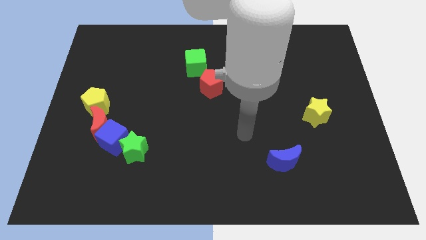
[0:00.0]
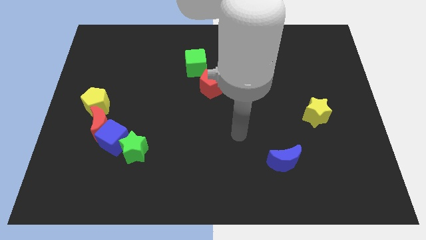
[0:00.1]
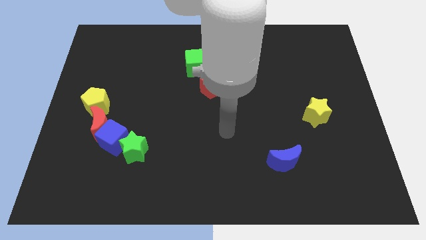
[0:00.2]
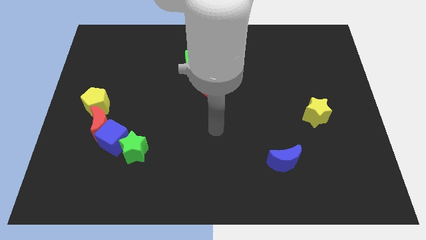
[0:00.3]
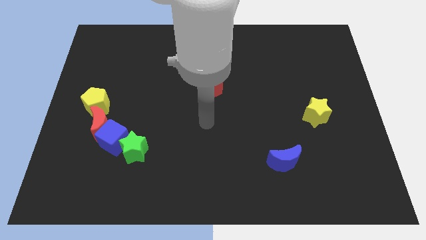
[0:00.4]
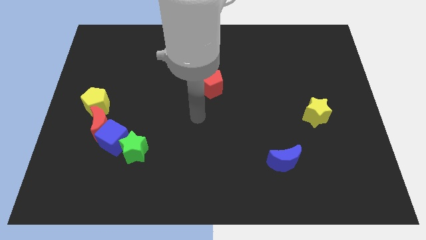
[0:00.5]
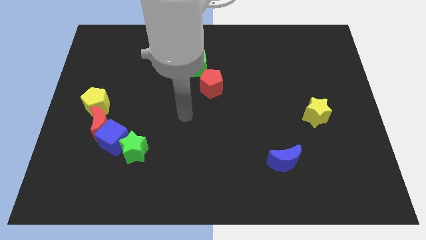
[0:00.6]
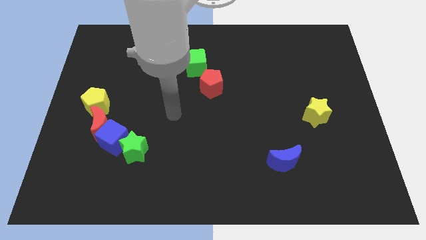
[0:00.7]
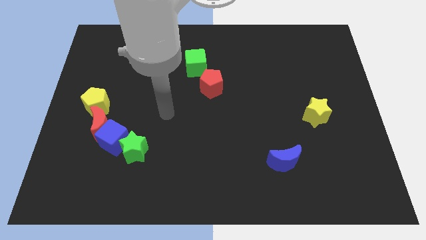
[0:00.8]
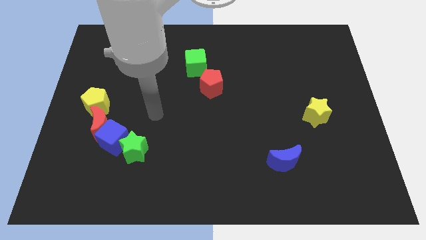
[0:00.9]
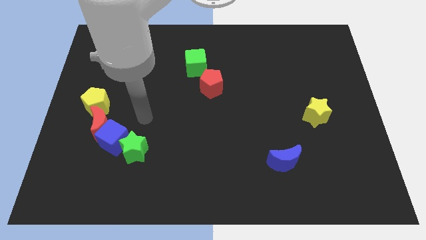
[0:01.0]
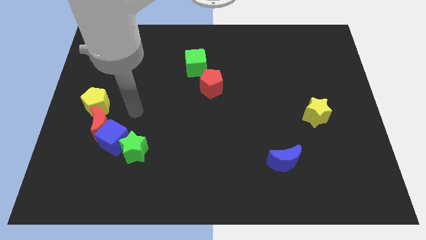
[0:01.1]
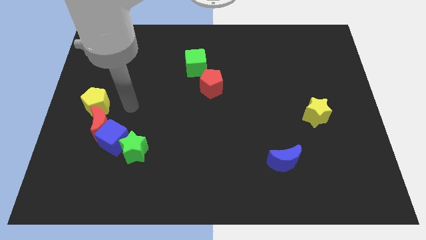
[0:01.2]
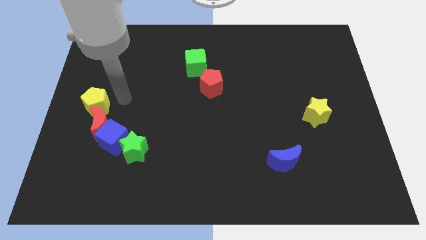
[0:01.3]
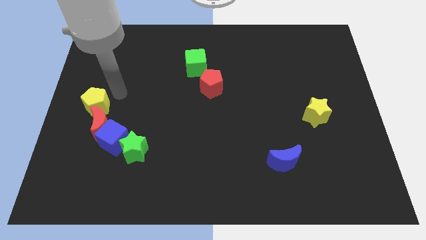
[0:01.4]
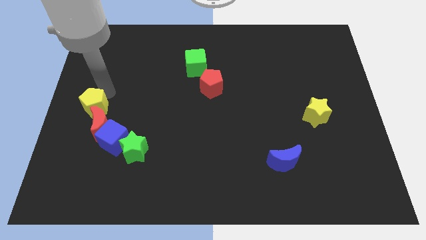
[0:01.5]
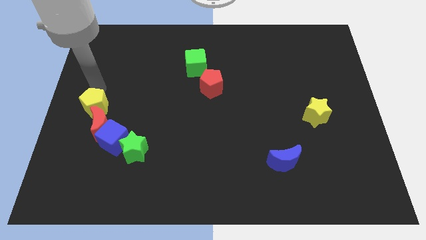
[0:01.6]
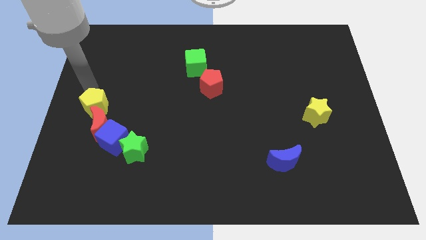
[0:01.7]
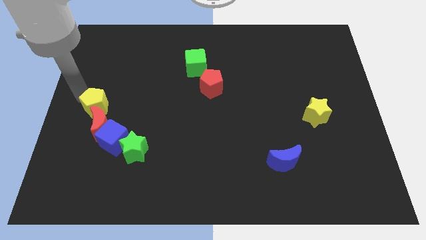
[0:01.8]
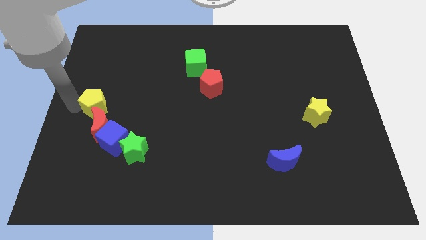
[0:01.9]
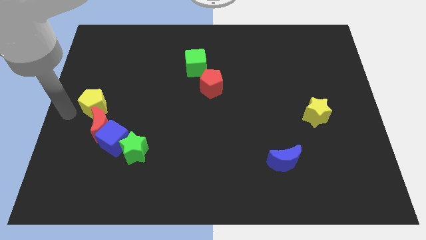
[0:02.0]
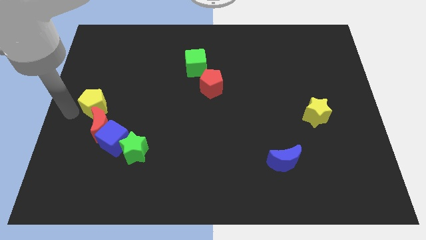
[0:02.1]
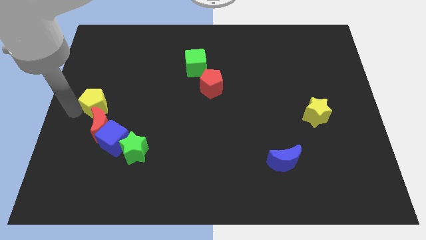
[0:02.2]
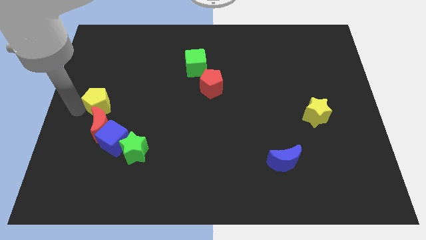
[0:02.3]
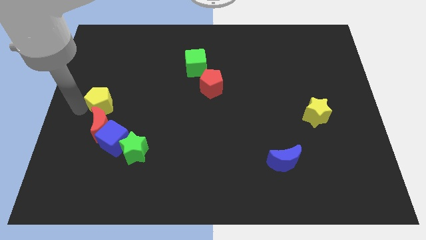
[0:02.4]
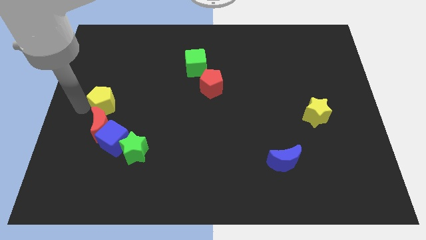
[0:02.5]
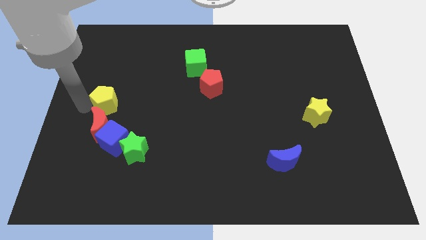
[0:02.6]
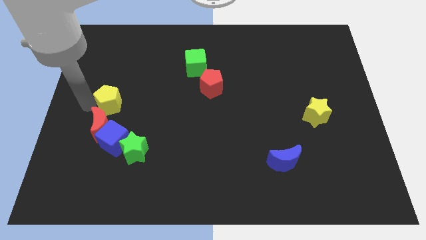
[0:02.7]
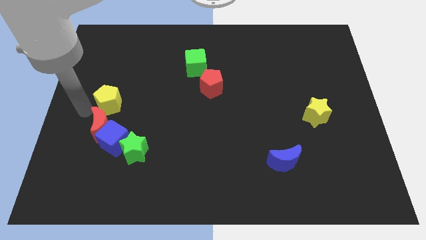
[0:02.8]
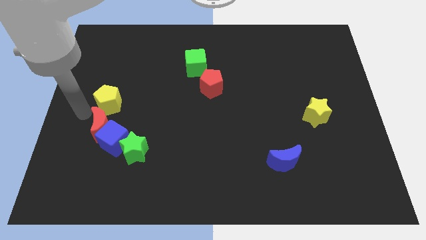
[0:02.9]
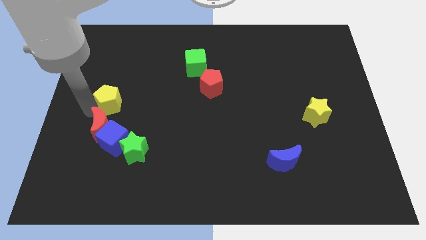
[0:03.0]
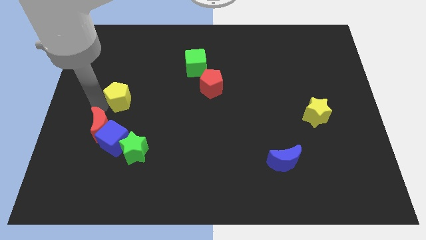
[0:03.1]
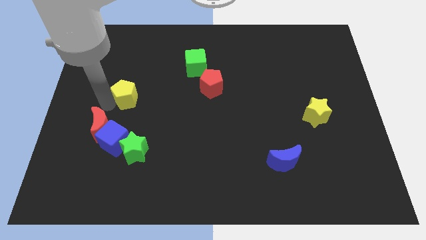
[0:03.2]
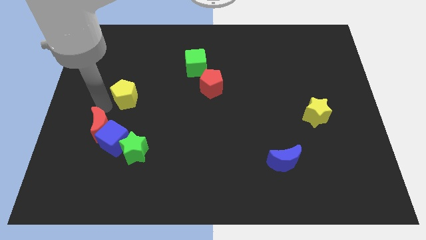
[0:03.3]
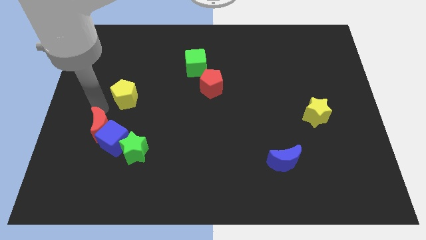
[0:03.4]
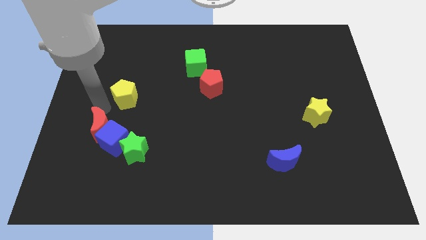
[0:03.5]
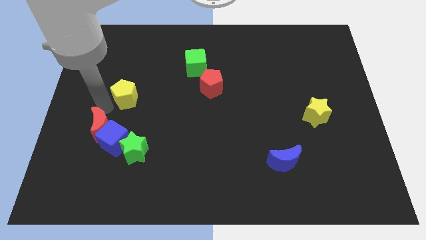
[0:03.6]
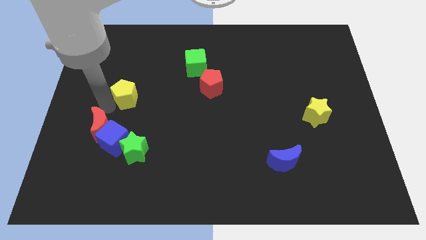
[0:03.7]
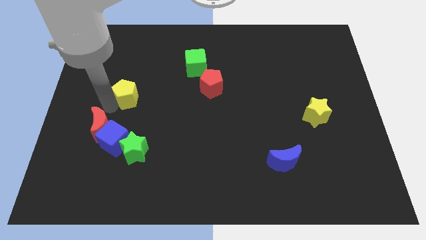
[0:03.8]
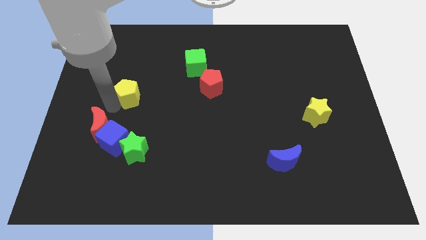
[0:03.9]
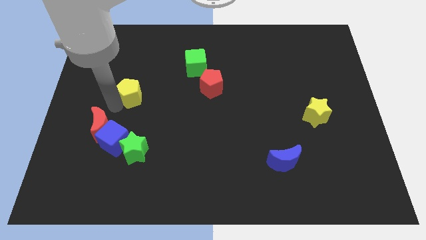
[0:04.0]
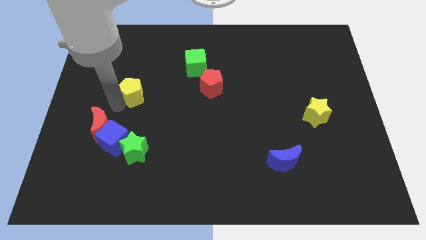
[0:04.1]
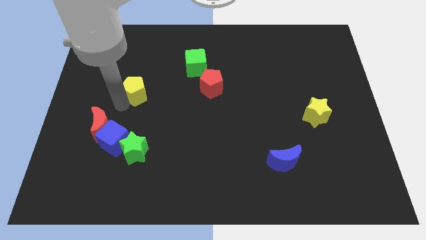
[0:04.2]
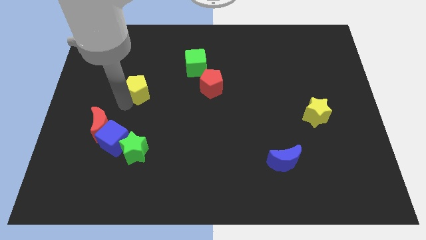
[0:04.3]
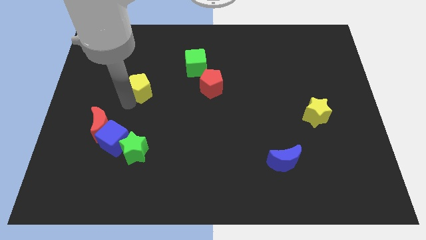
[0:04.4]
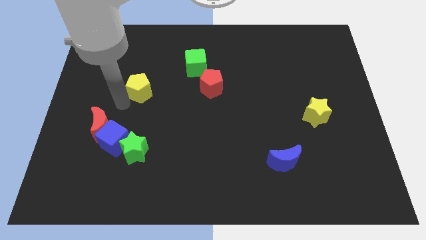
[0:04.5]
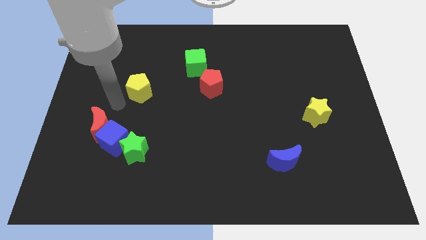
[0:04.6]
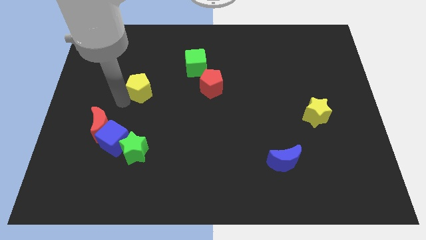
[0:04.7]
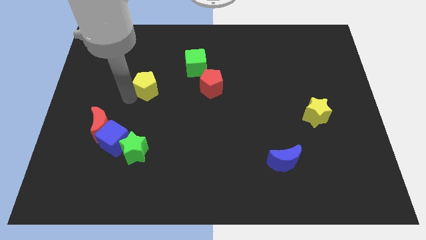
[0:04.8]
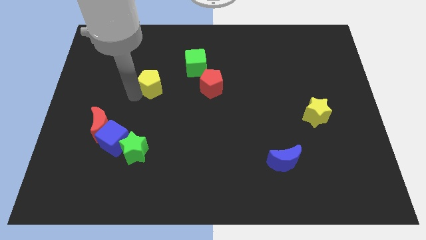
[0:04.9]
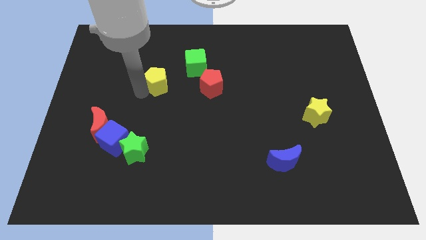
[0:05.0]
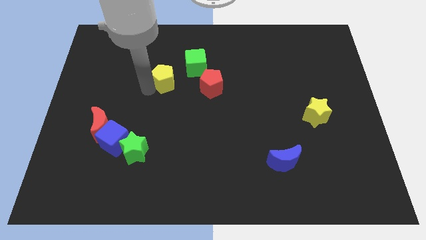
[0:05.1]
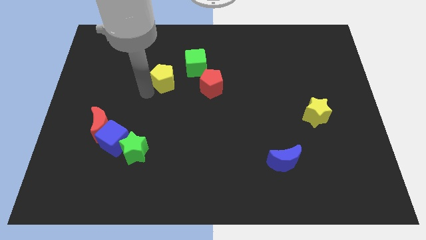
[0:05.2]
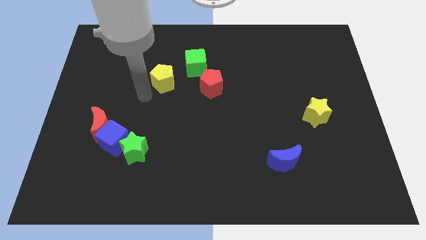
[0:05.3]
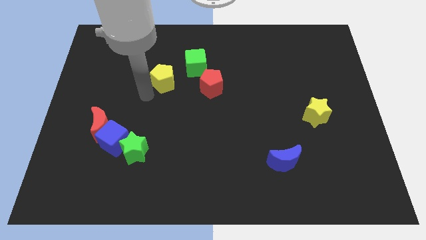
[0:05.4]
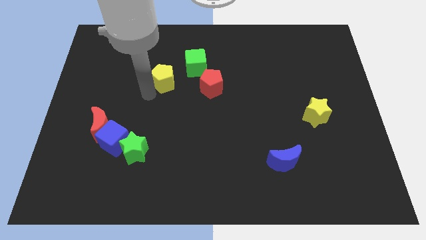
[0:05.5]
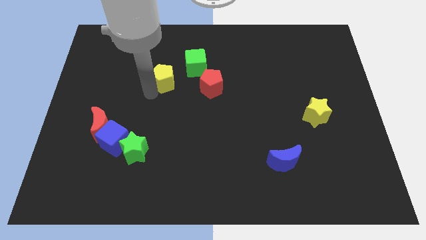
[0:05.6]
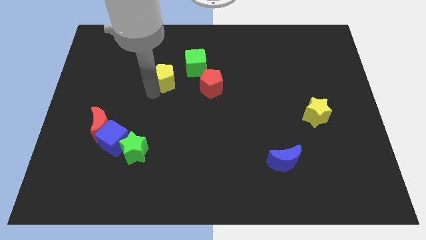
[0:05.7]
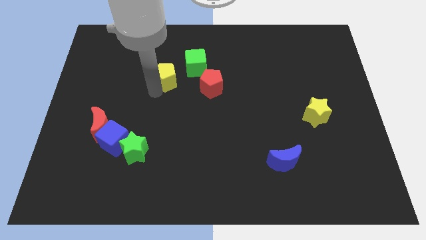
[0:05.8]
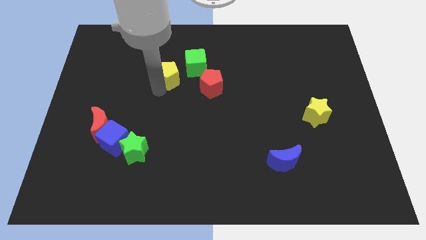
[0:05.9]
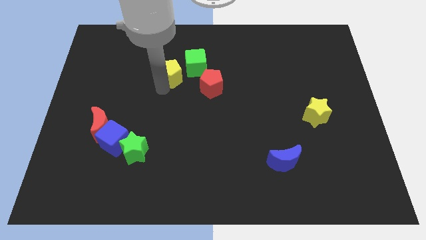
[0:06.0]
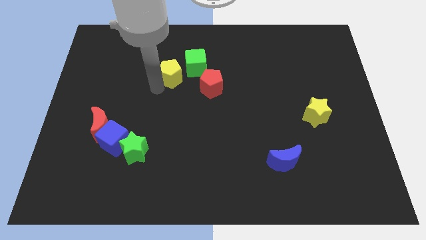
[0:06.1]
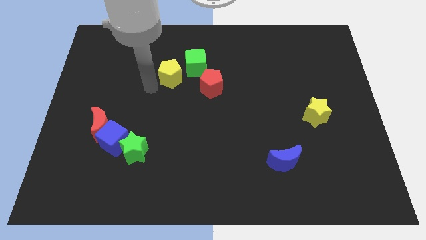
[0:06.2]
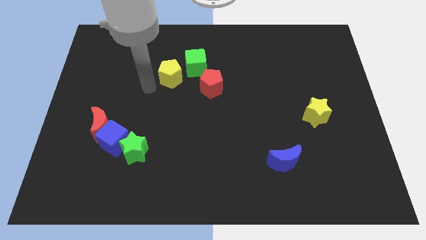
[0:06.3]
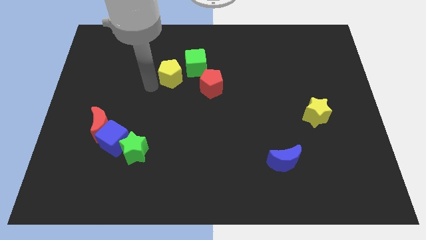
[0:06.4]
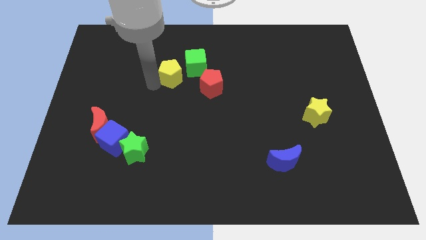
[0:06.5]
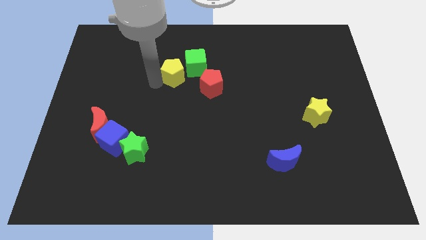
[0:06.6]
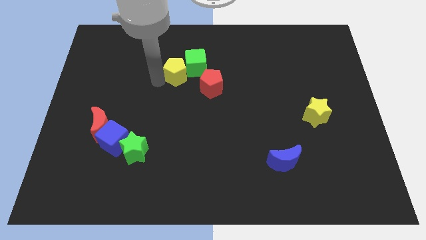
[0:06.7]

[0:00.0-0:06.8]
push the yellow pentagon to the green cube

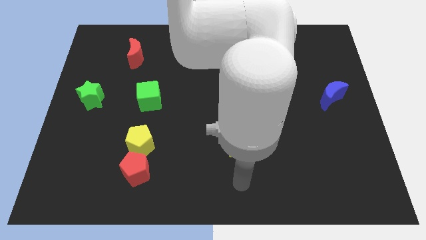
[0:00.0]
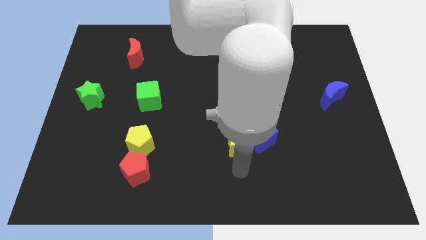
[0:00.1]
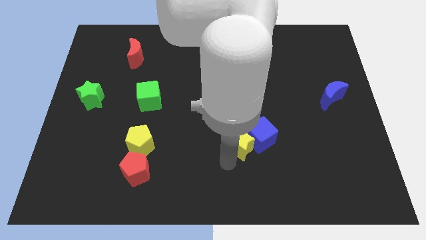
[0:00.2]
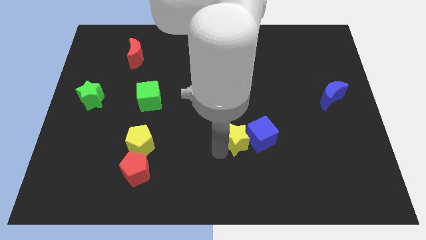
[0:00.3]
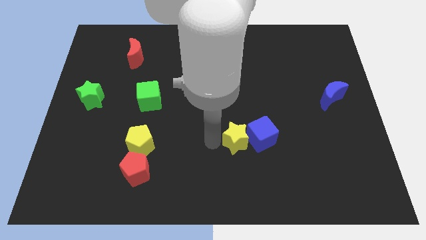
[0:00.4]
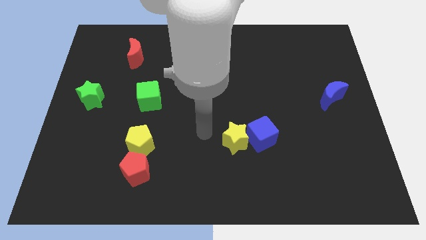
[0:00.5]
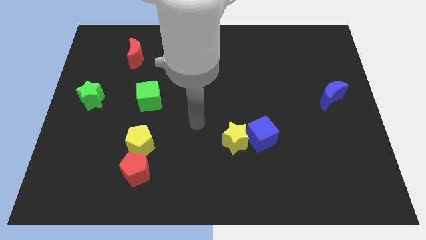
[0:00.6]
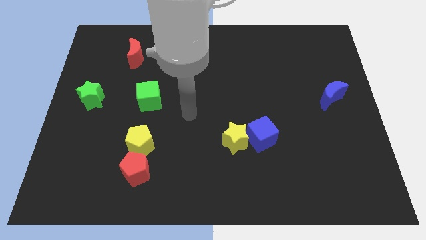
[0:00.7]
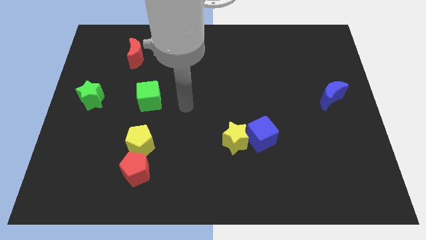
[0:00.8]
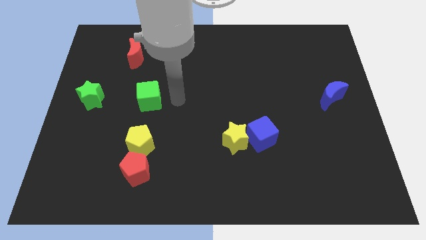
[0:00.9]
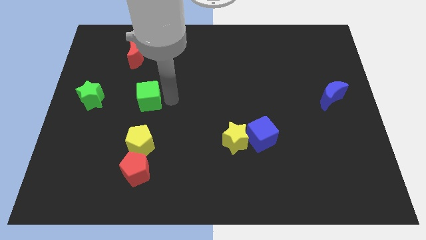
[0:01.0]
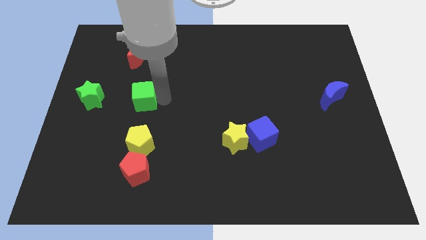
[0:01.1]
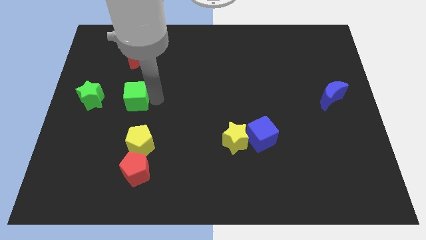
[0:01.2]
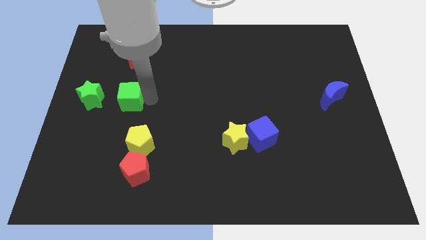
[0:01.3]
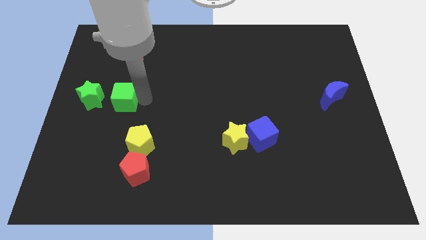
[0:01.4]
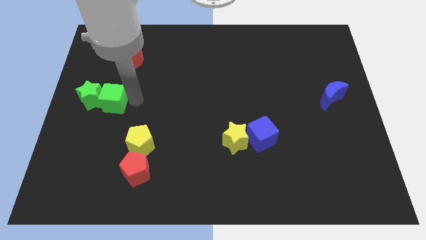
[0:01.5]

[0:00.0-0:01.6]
slide the green cube to the green star
